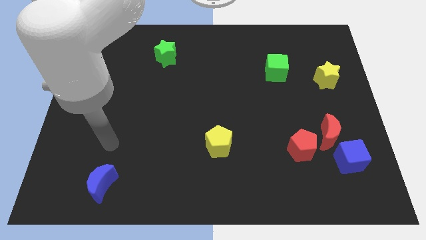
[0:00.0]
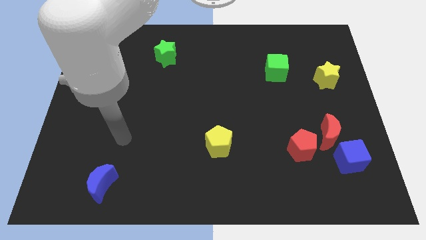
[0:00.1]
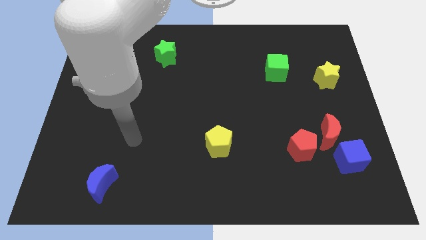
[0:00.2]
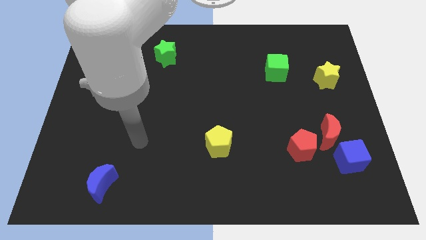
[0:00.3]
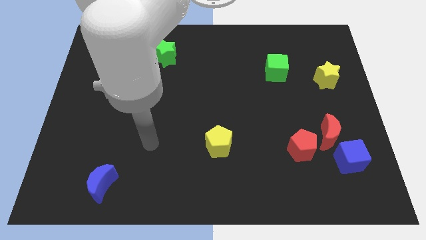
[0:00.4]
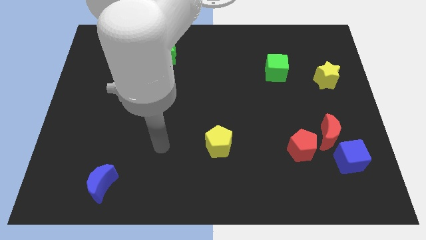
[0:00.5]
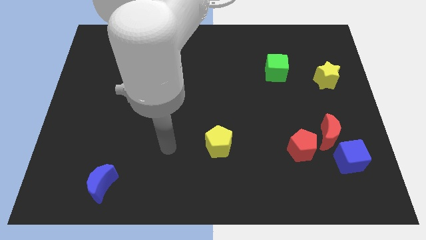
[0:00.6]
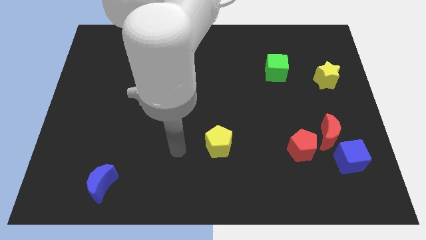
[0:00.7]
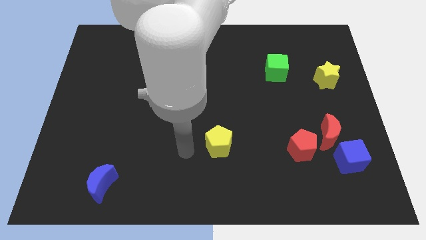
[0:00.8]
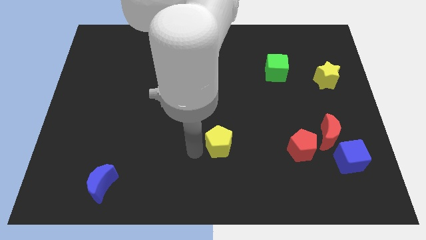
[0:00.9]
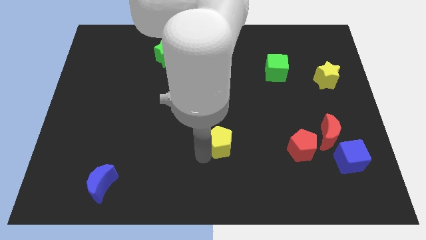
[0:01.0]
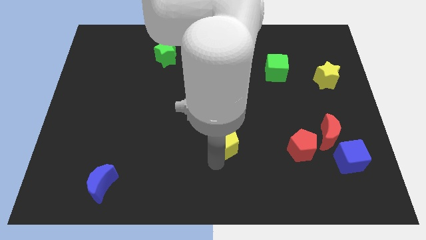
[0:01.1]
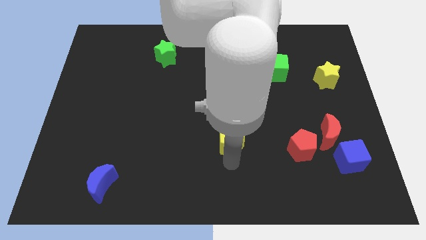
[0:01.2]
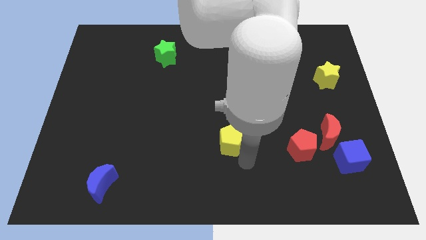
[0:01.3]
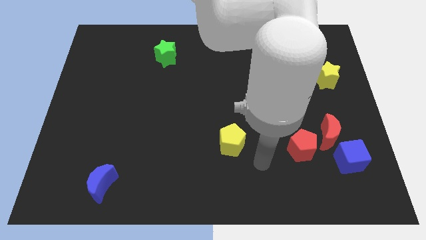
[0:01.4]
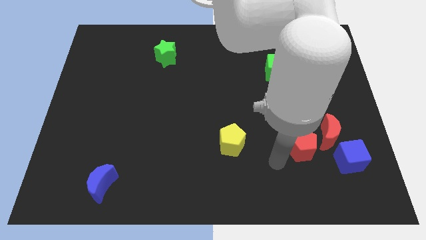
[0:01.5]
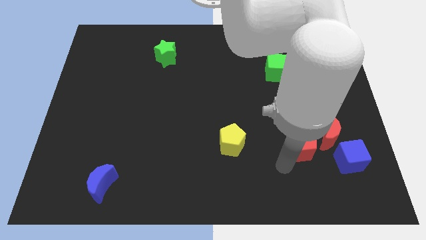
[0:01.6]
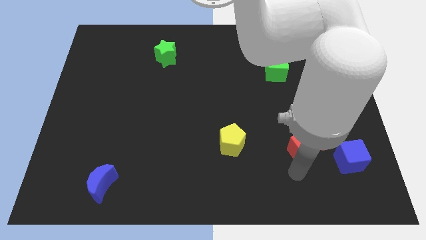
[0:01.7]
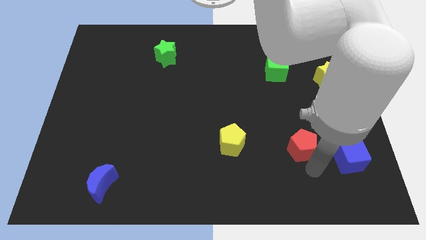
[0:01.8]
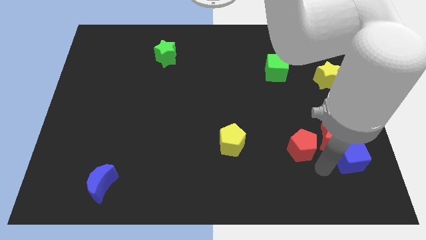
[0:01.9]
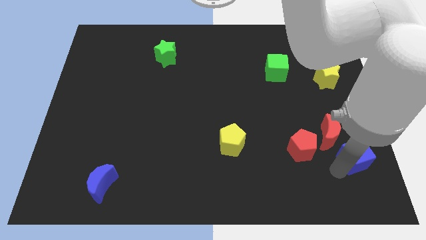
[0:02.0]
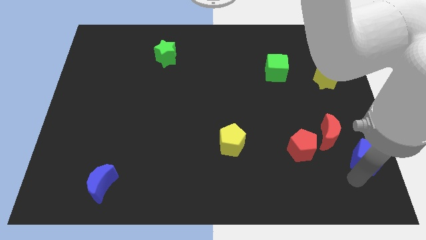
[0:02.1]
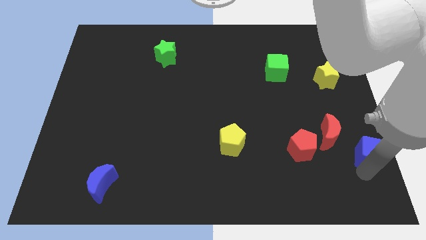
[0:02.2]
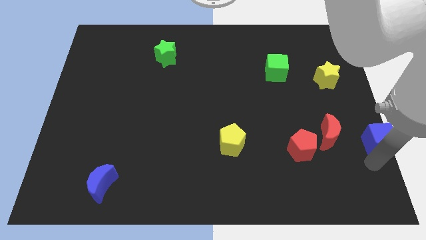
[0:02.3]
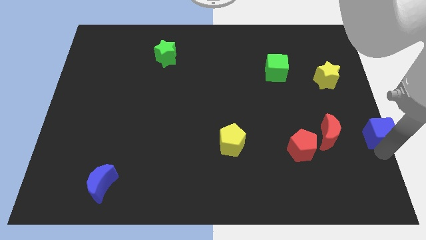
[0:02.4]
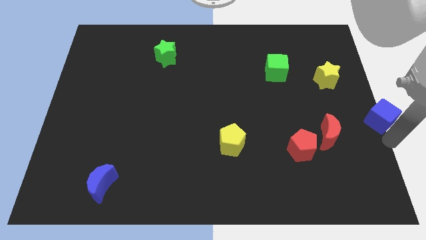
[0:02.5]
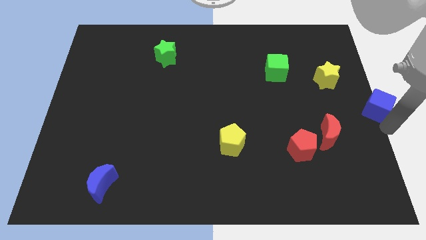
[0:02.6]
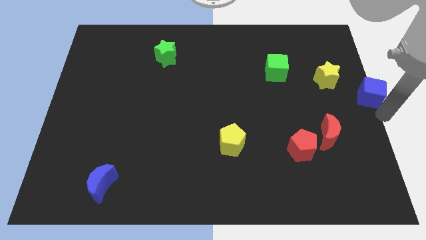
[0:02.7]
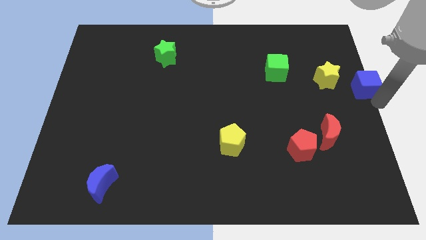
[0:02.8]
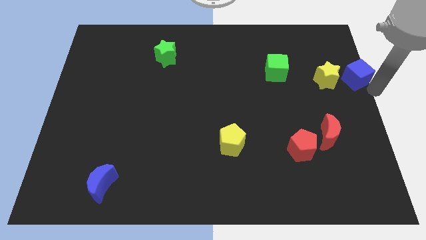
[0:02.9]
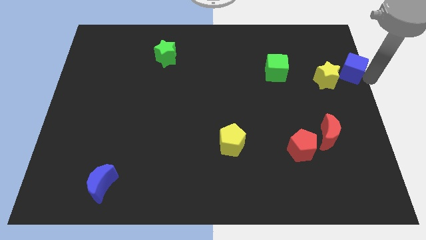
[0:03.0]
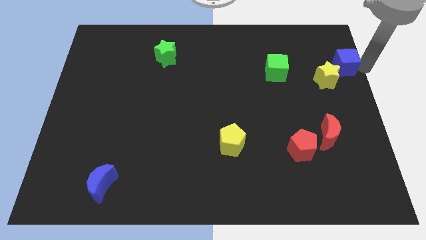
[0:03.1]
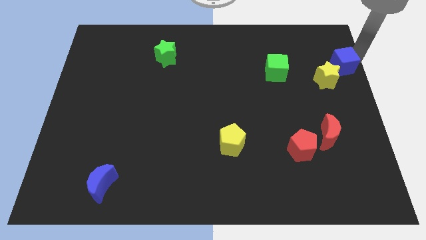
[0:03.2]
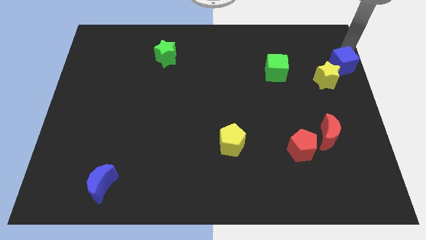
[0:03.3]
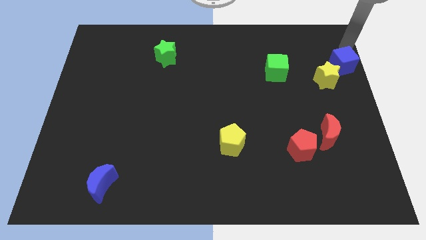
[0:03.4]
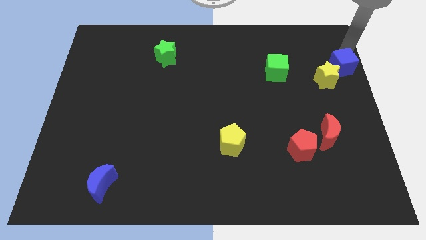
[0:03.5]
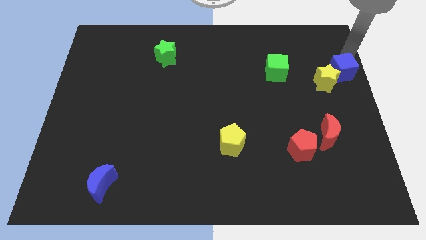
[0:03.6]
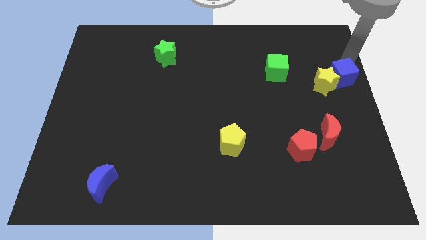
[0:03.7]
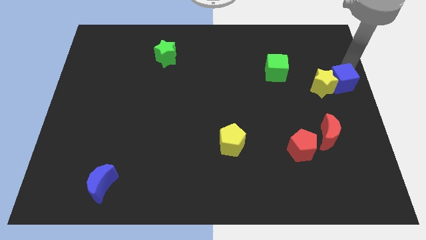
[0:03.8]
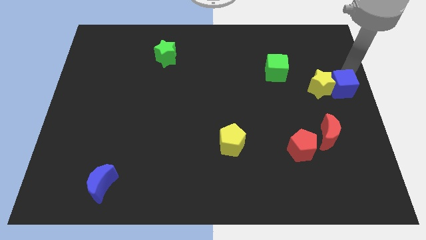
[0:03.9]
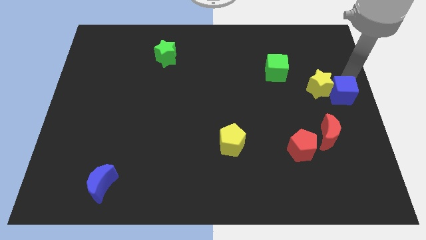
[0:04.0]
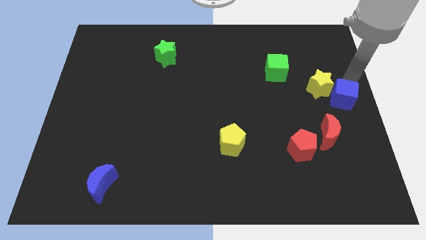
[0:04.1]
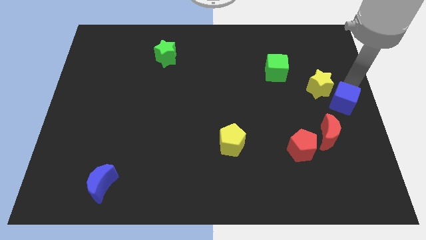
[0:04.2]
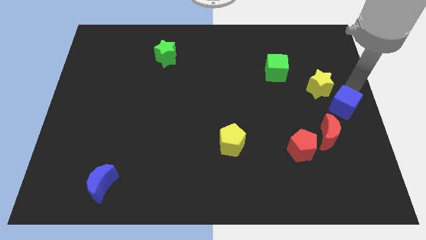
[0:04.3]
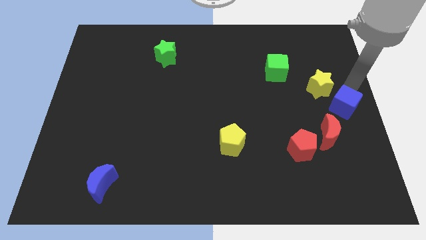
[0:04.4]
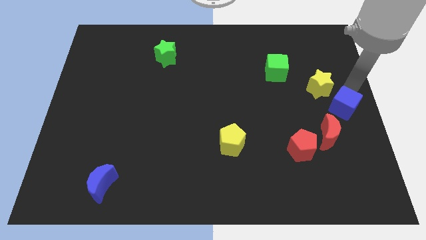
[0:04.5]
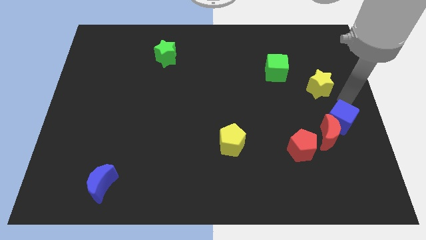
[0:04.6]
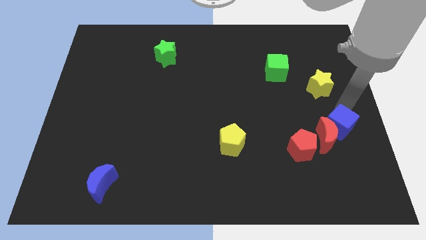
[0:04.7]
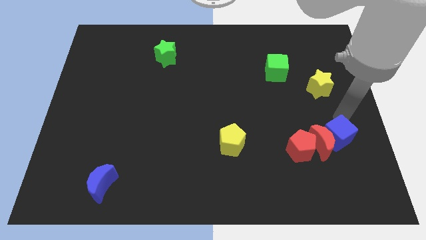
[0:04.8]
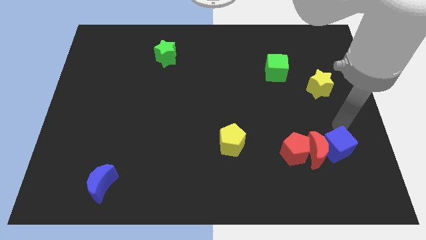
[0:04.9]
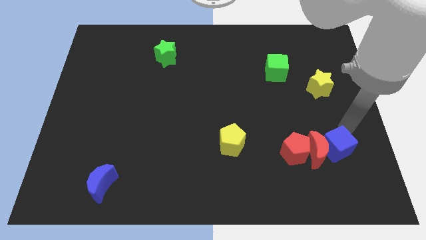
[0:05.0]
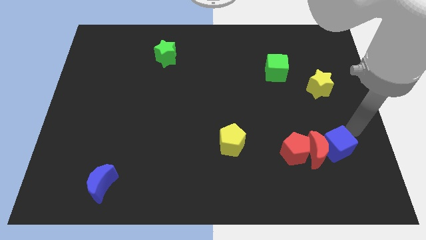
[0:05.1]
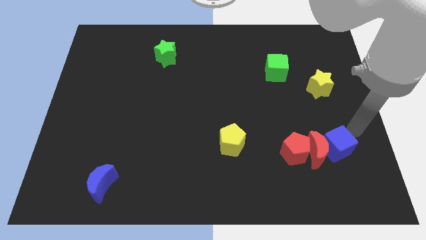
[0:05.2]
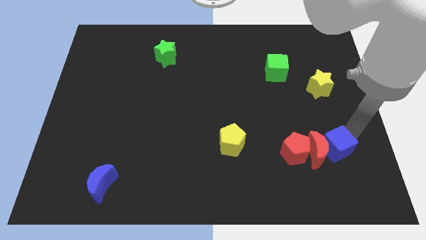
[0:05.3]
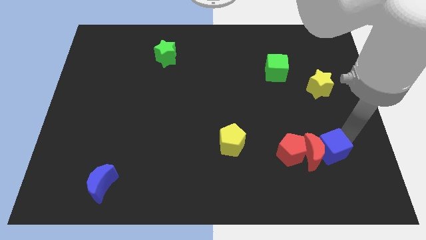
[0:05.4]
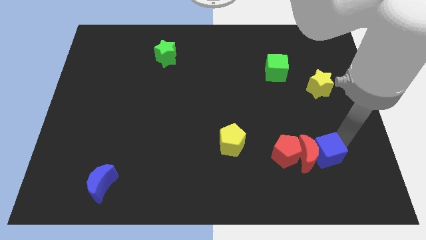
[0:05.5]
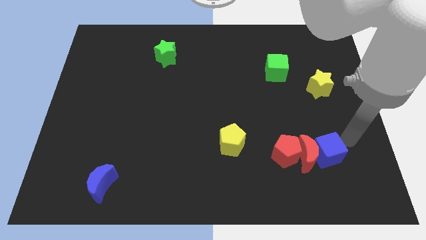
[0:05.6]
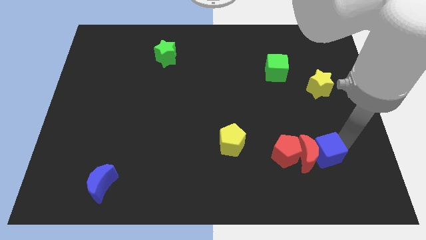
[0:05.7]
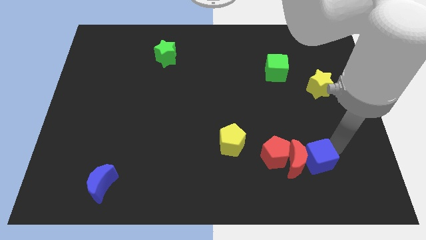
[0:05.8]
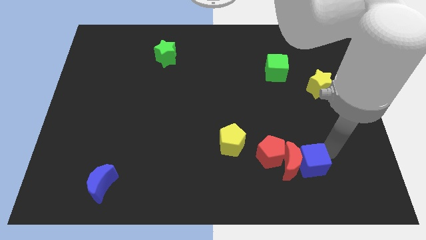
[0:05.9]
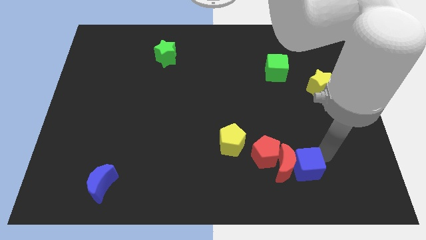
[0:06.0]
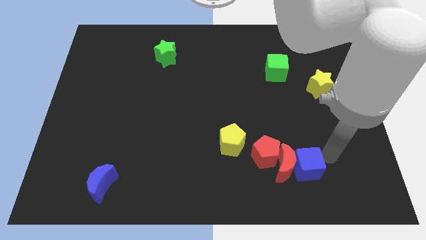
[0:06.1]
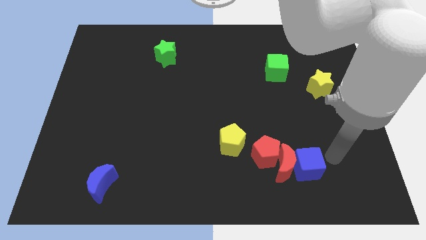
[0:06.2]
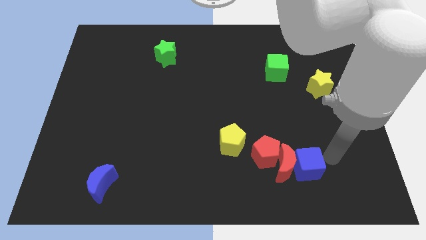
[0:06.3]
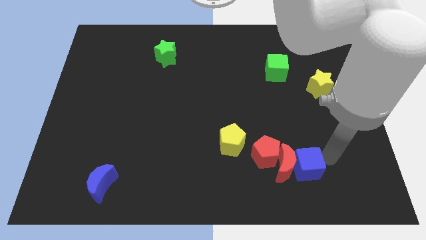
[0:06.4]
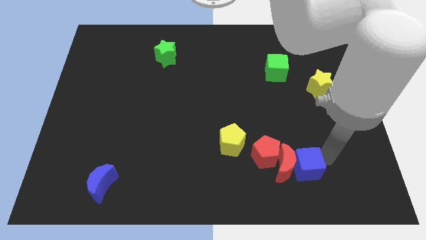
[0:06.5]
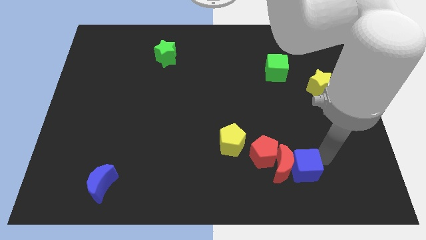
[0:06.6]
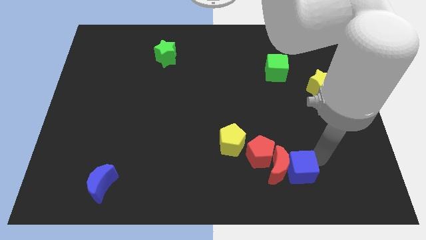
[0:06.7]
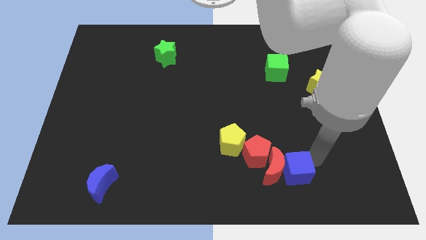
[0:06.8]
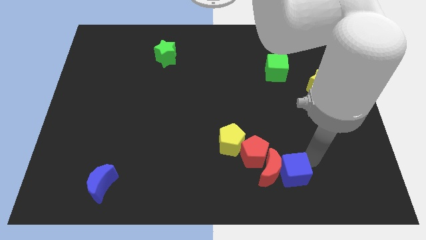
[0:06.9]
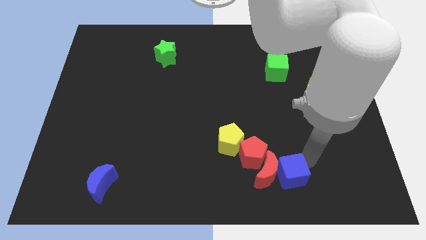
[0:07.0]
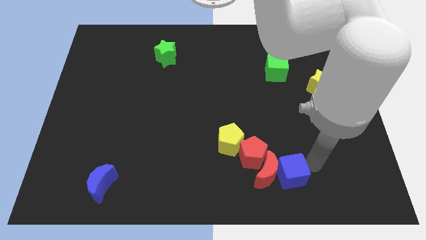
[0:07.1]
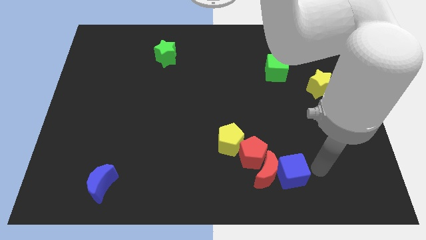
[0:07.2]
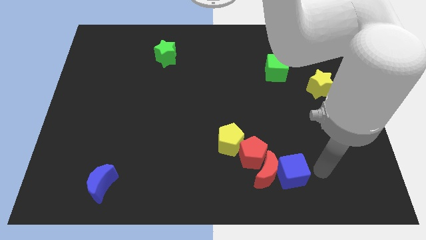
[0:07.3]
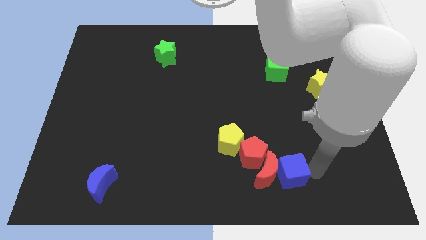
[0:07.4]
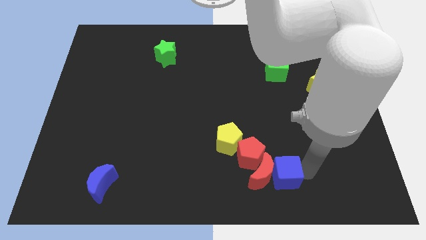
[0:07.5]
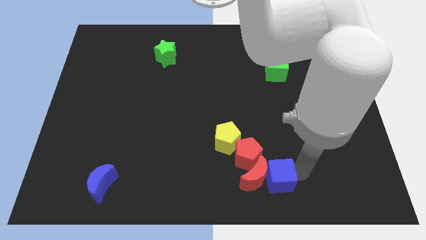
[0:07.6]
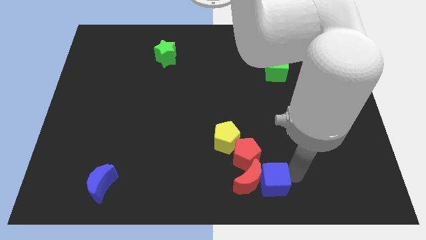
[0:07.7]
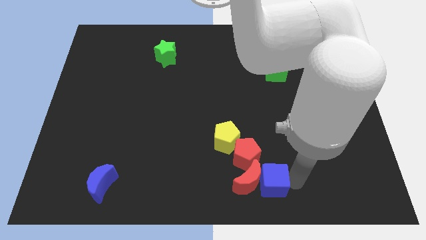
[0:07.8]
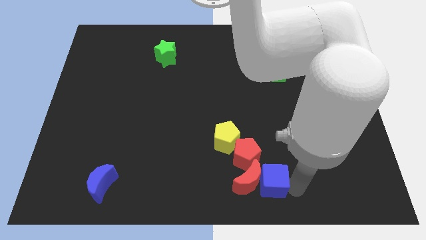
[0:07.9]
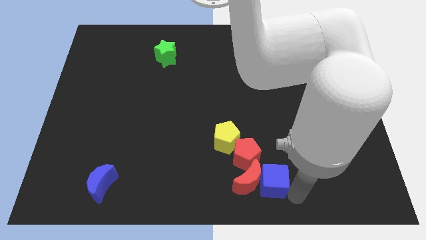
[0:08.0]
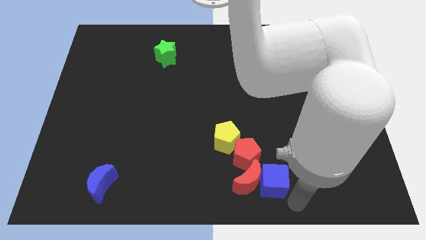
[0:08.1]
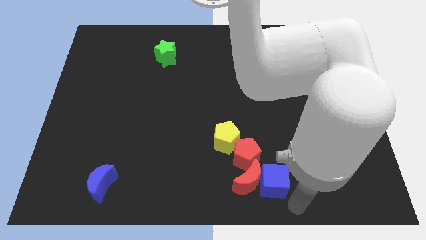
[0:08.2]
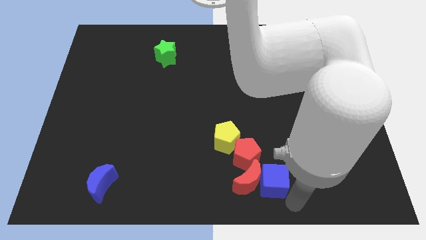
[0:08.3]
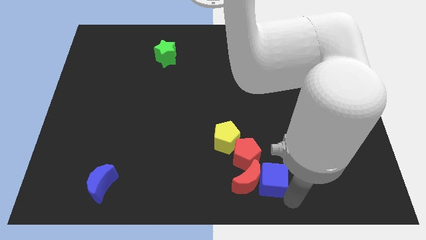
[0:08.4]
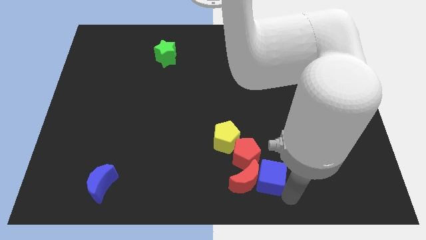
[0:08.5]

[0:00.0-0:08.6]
put the blue cube to the bottom right of the yellow pentagon
